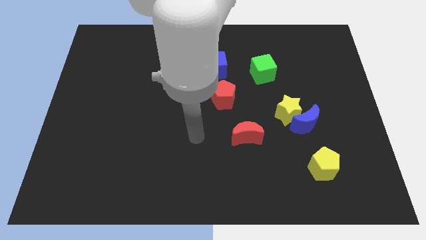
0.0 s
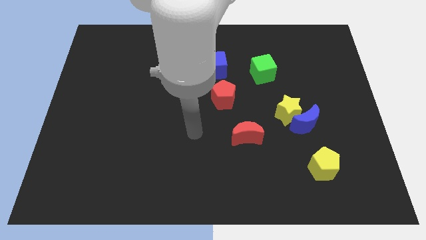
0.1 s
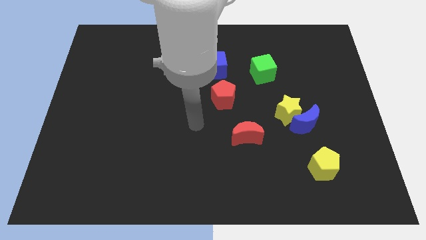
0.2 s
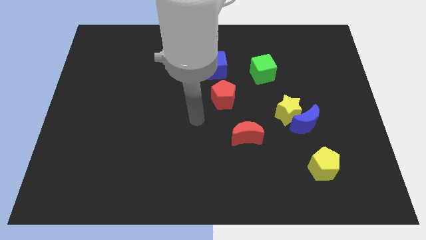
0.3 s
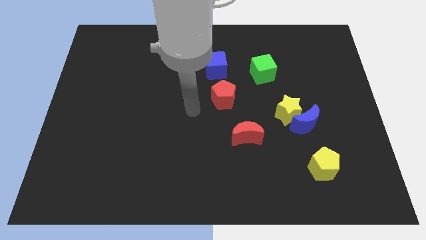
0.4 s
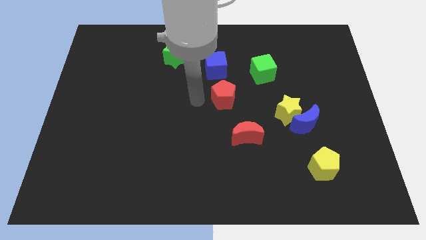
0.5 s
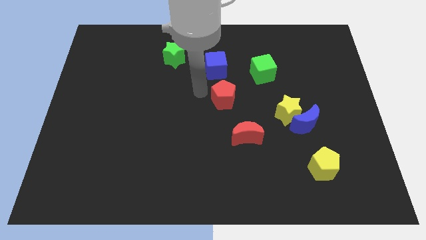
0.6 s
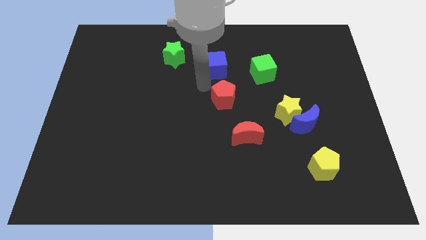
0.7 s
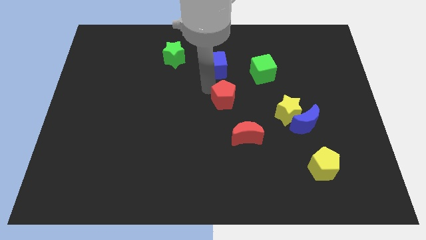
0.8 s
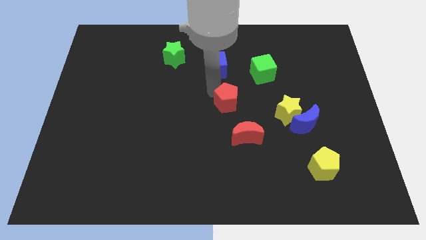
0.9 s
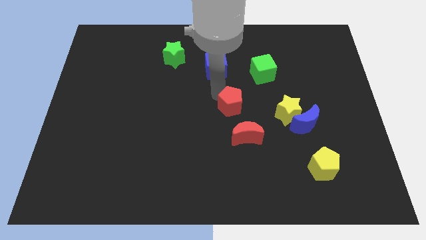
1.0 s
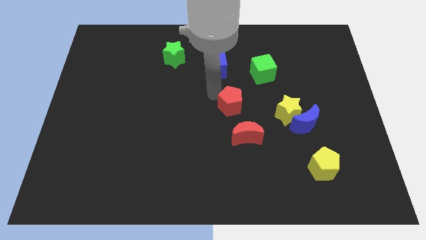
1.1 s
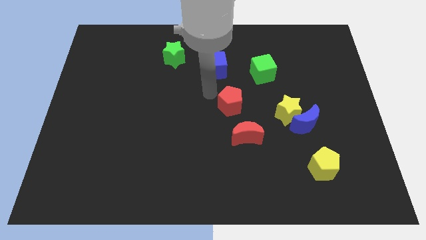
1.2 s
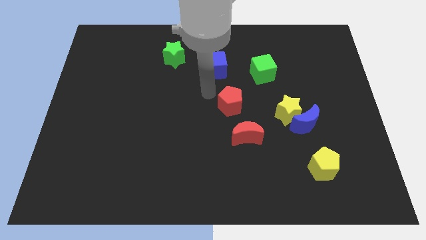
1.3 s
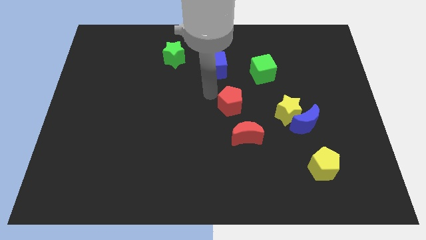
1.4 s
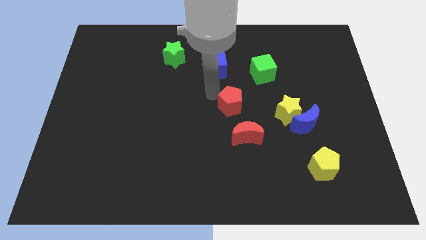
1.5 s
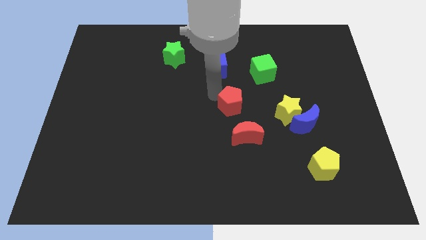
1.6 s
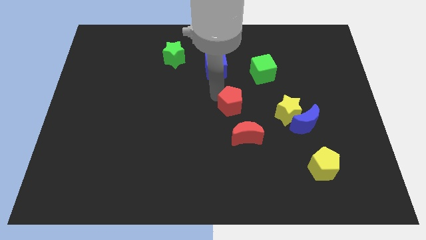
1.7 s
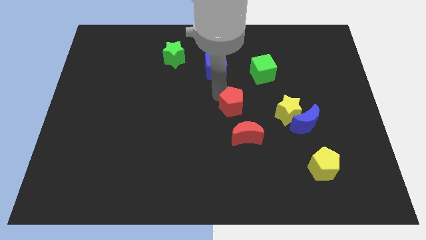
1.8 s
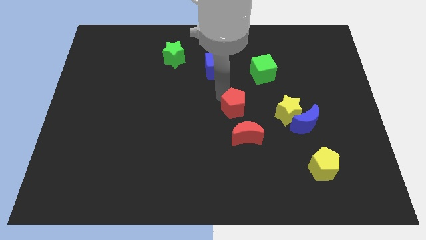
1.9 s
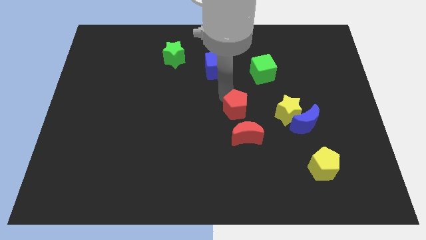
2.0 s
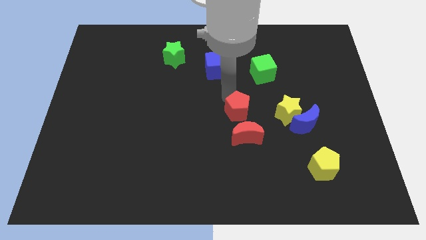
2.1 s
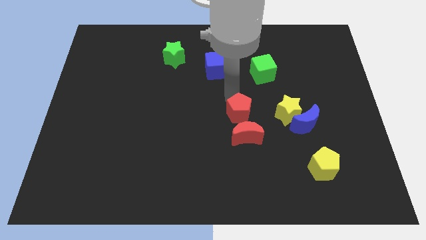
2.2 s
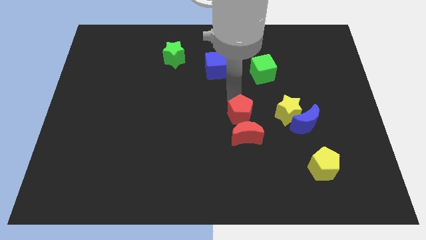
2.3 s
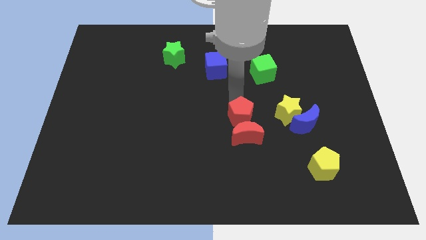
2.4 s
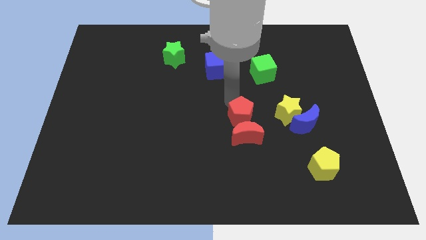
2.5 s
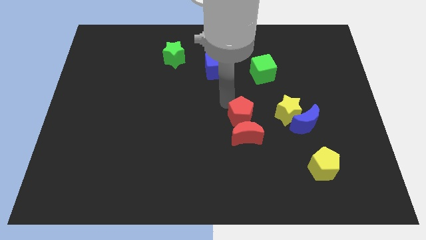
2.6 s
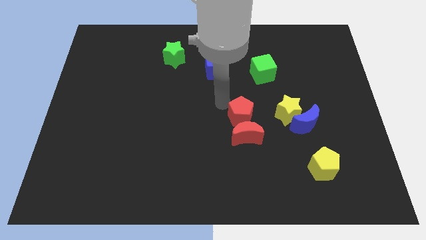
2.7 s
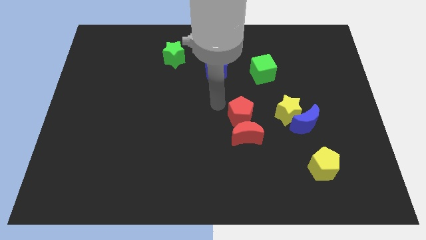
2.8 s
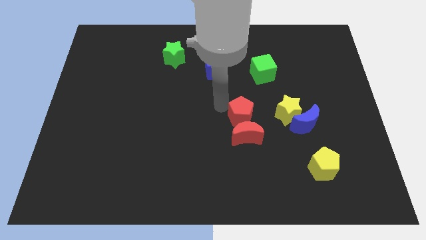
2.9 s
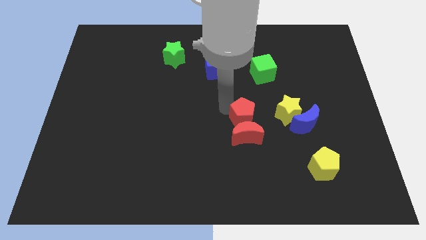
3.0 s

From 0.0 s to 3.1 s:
push the red pentagon slightly down and to the right

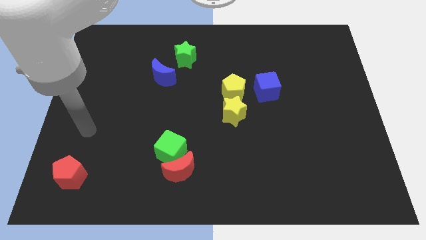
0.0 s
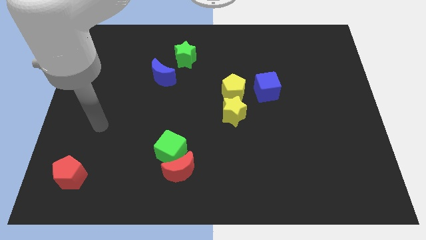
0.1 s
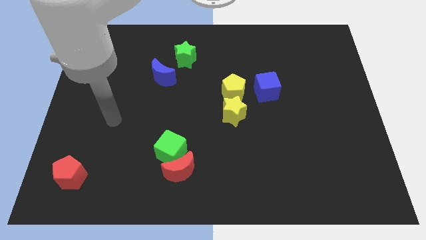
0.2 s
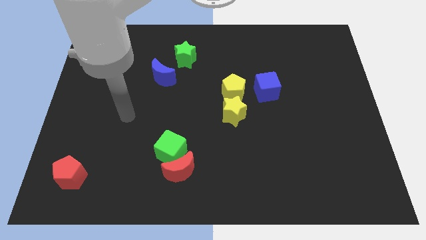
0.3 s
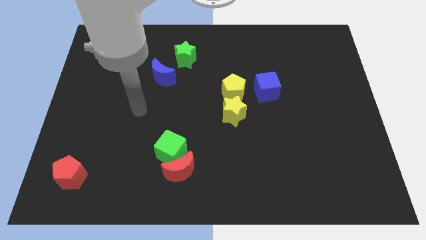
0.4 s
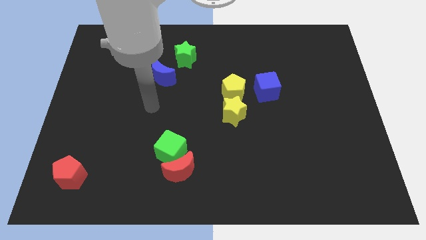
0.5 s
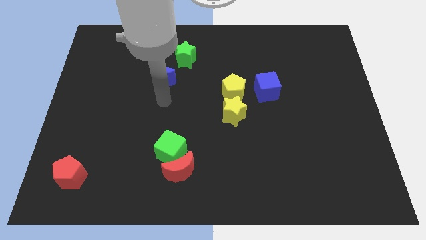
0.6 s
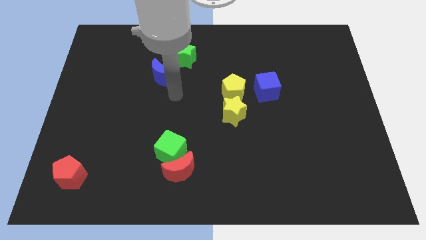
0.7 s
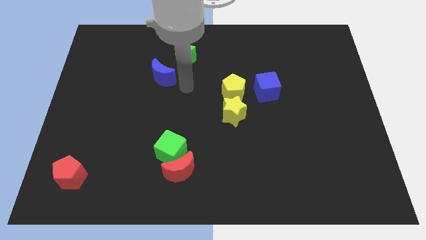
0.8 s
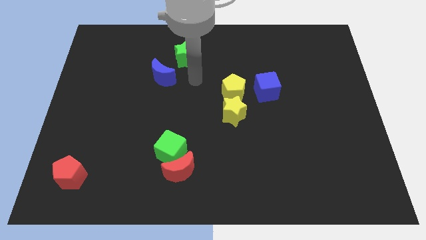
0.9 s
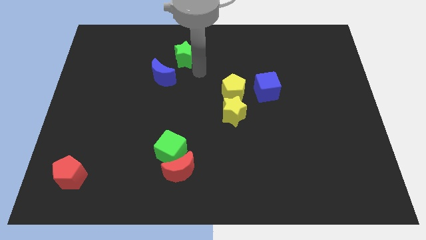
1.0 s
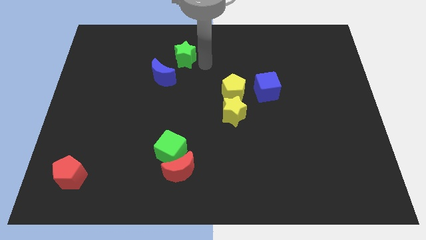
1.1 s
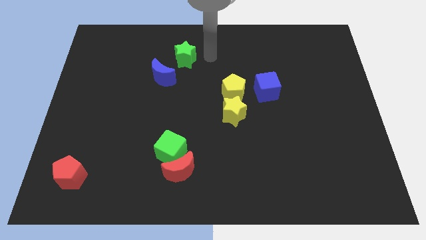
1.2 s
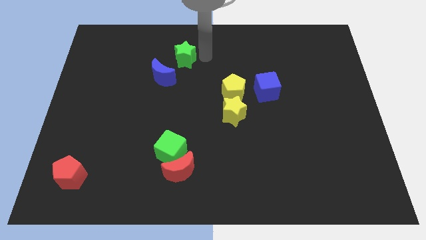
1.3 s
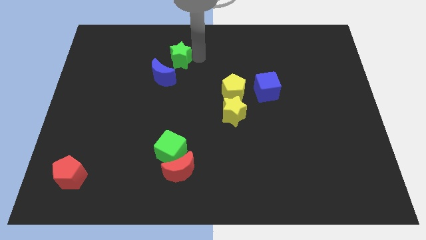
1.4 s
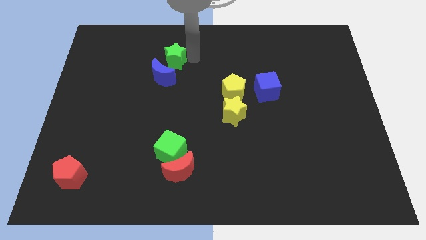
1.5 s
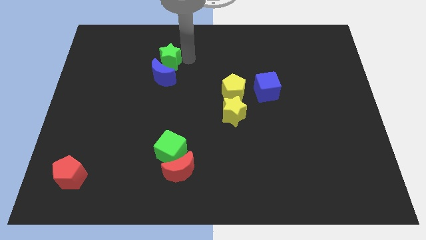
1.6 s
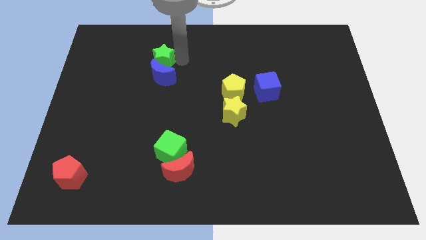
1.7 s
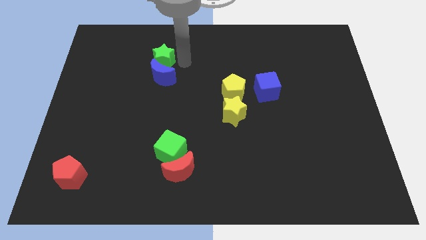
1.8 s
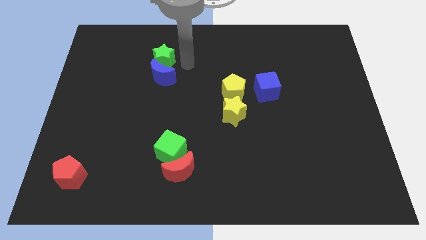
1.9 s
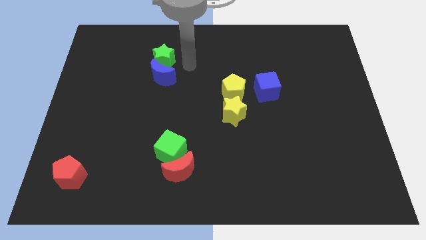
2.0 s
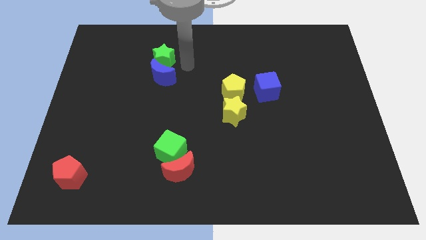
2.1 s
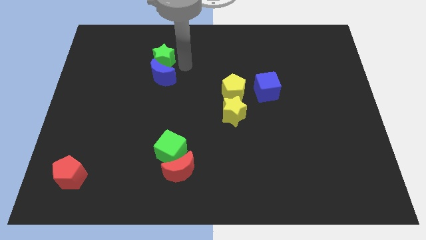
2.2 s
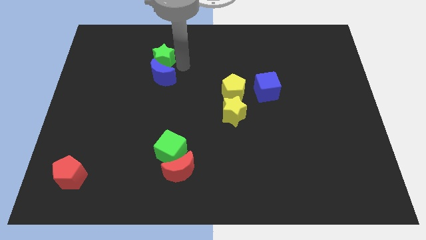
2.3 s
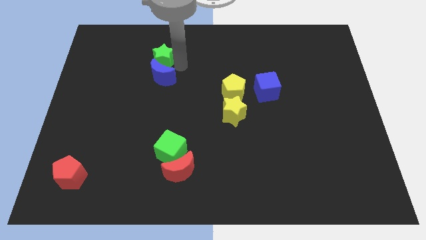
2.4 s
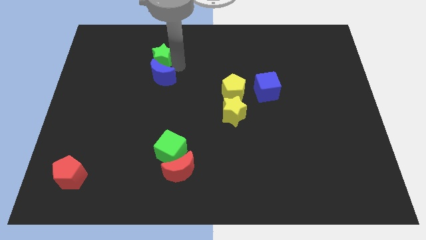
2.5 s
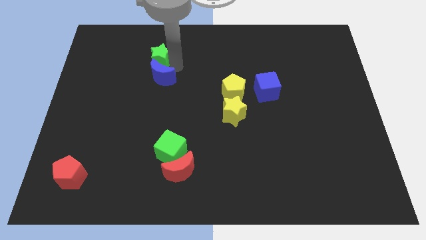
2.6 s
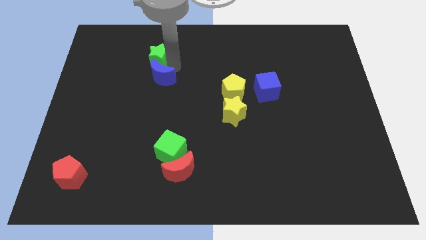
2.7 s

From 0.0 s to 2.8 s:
slide the green star left a little

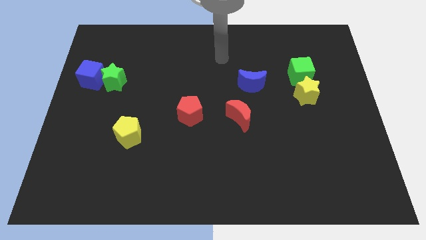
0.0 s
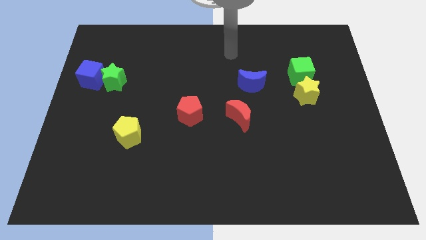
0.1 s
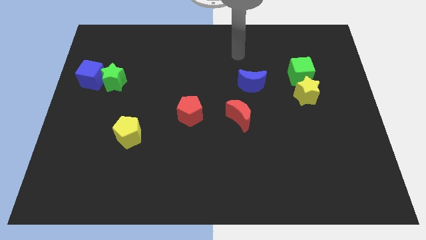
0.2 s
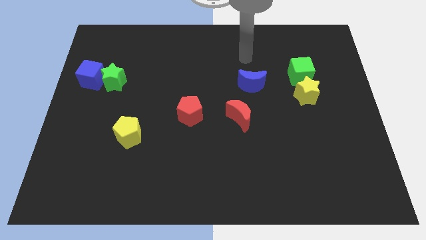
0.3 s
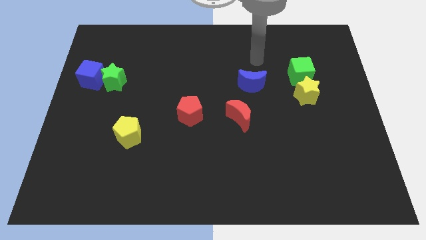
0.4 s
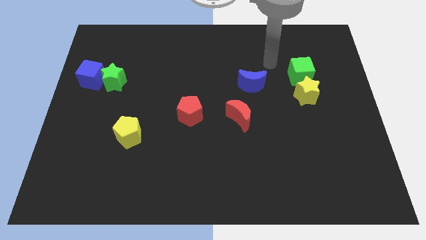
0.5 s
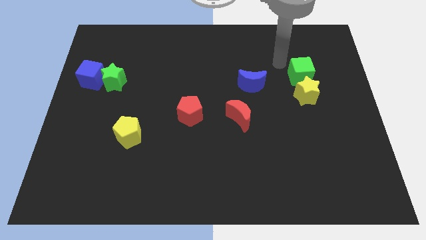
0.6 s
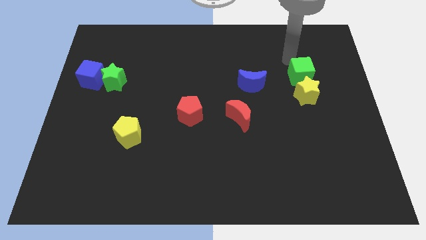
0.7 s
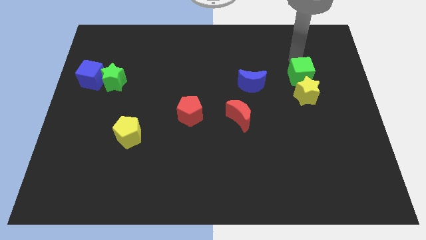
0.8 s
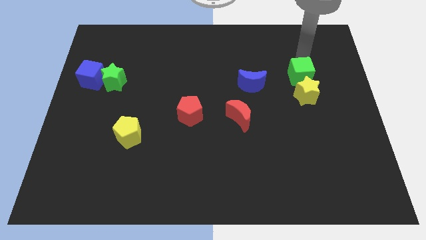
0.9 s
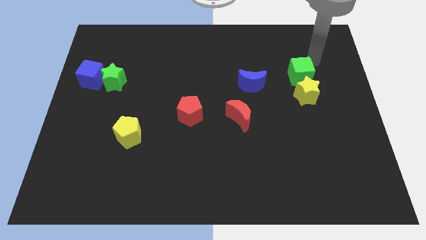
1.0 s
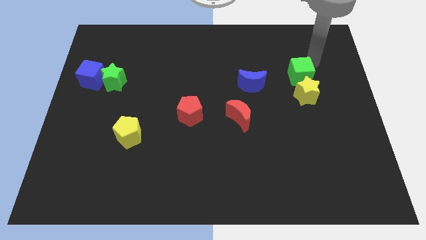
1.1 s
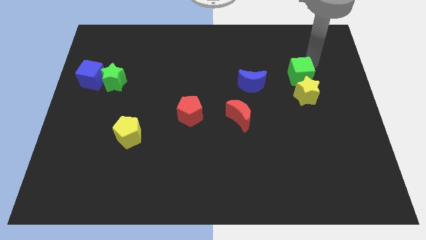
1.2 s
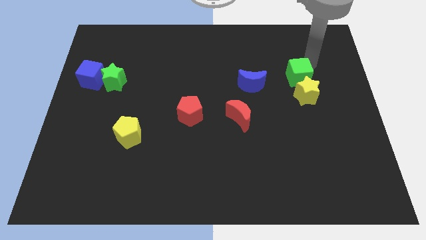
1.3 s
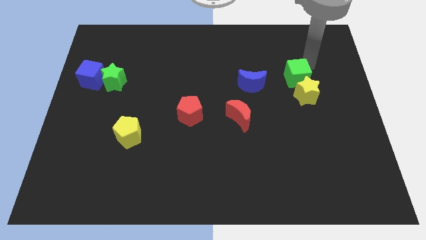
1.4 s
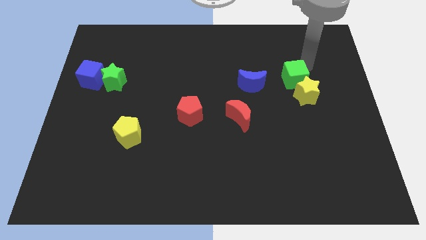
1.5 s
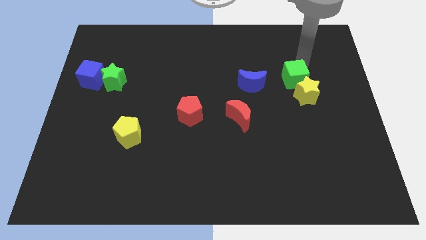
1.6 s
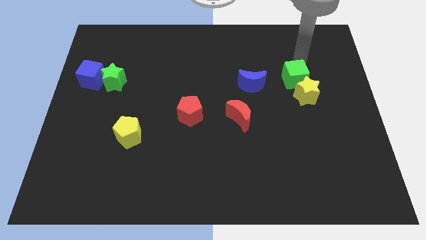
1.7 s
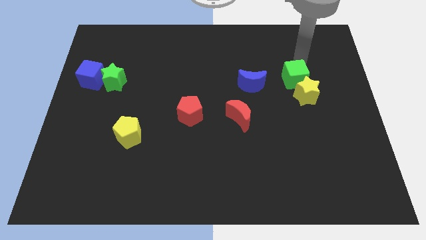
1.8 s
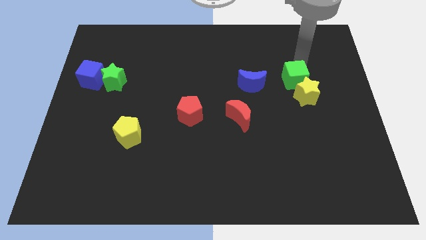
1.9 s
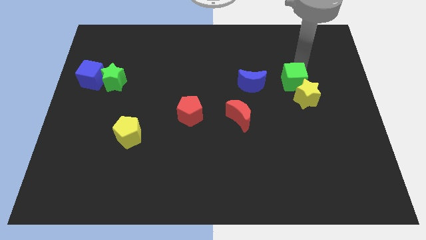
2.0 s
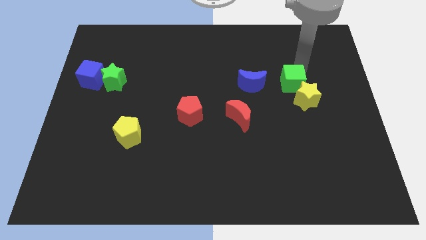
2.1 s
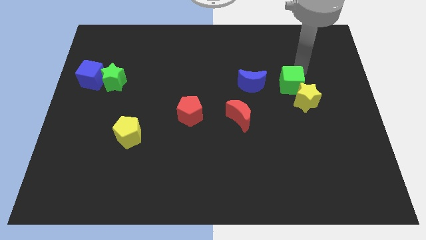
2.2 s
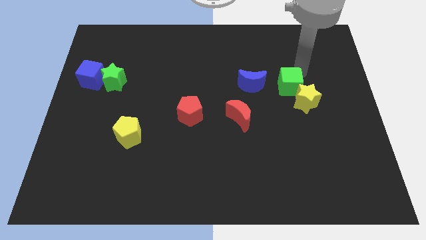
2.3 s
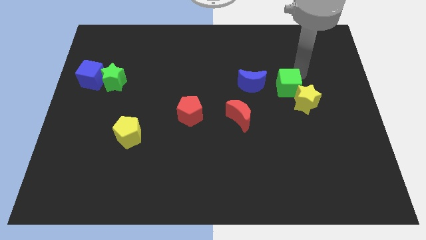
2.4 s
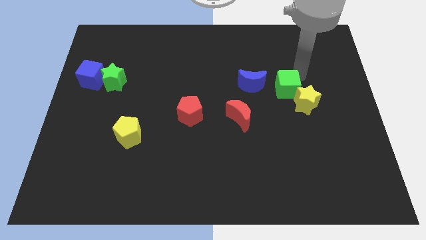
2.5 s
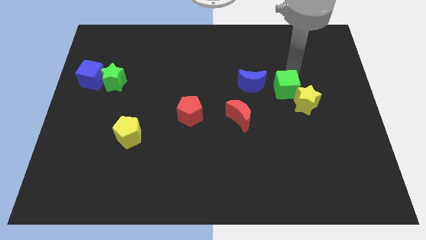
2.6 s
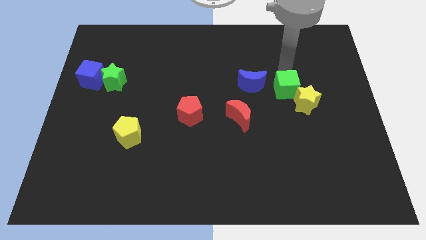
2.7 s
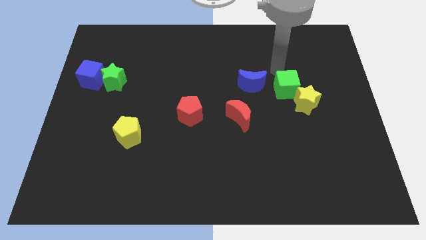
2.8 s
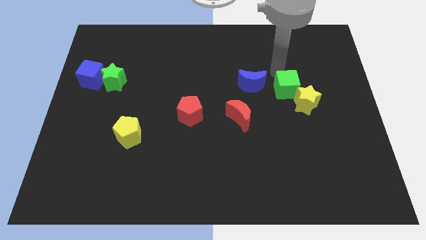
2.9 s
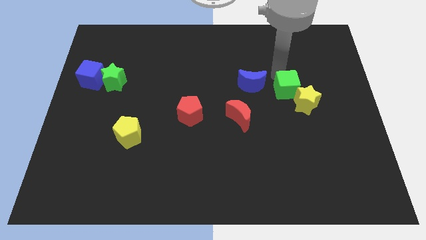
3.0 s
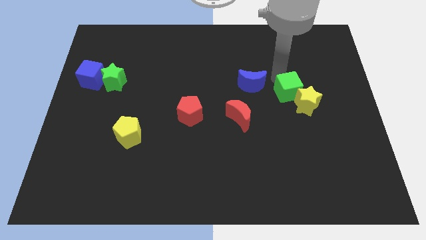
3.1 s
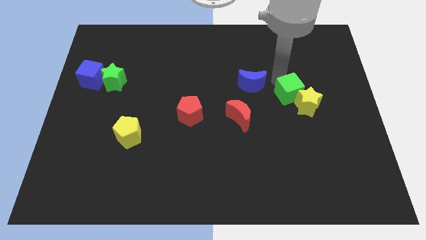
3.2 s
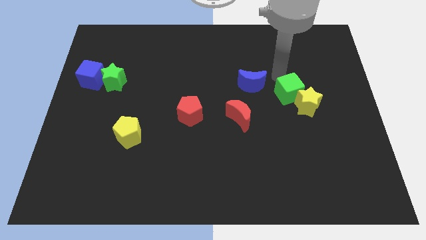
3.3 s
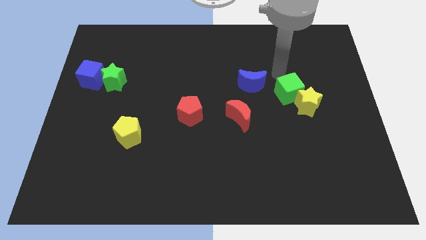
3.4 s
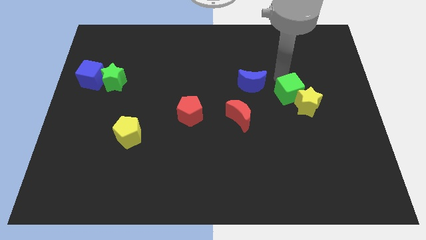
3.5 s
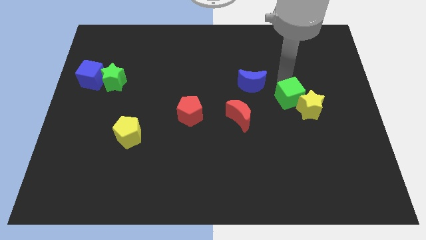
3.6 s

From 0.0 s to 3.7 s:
slide the green cube a little bit down
